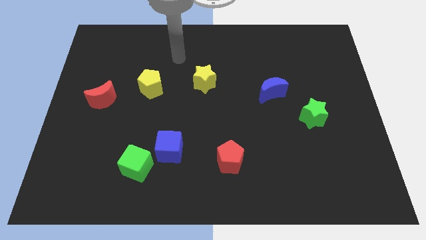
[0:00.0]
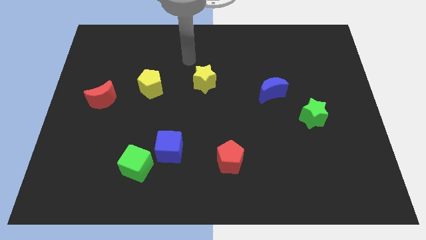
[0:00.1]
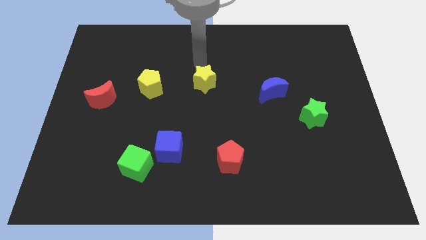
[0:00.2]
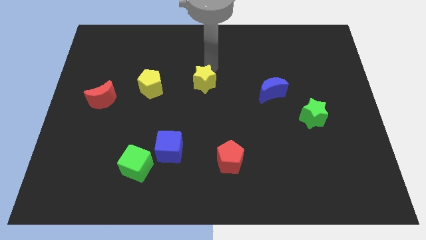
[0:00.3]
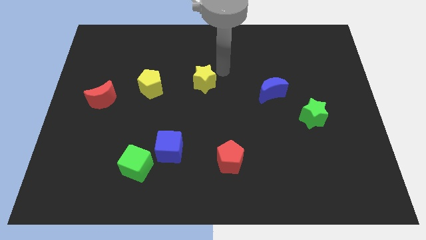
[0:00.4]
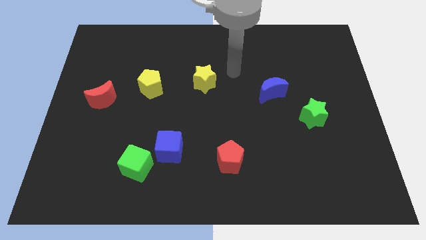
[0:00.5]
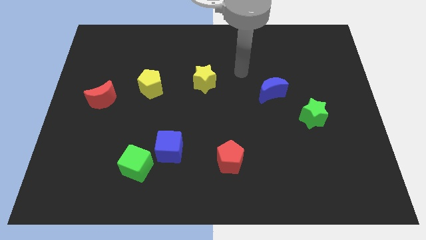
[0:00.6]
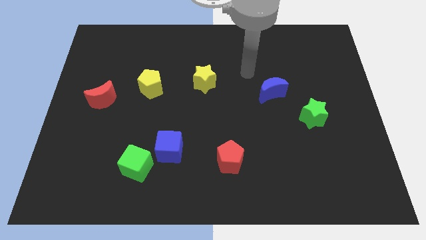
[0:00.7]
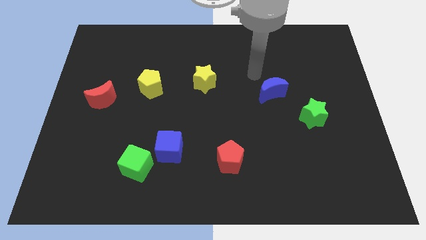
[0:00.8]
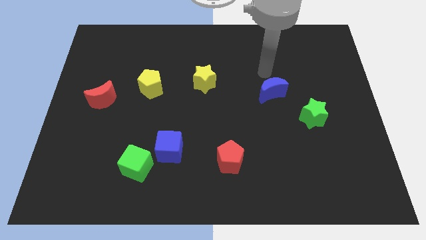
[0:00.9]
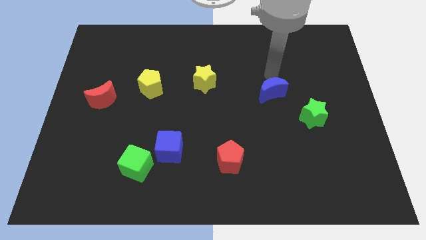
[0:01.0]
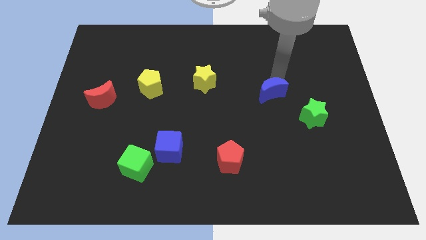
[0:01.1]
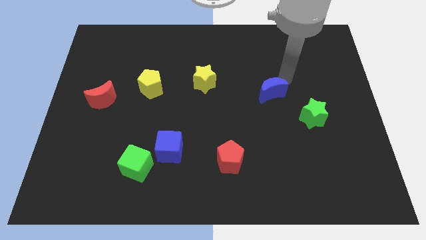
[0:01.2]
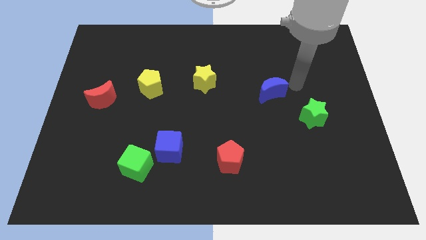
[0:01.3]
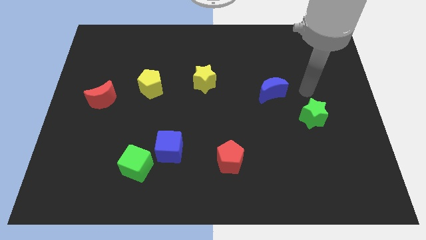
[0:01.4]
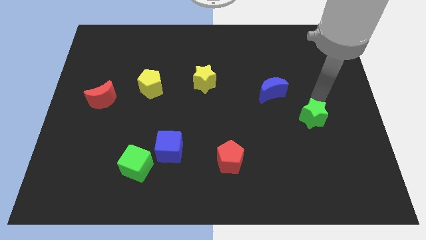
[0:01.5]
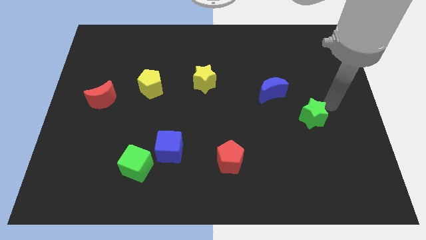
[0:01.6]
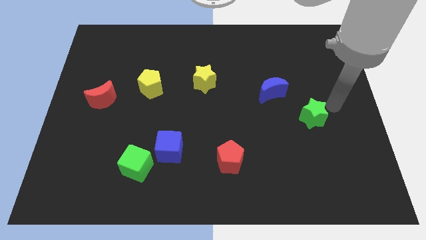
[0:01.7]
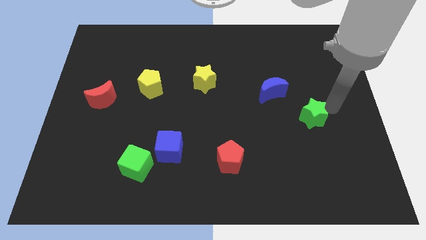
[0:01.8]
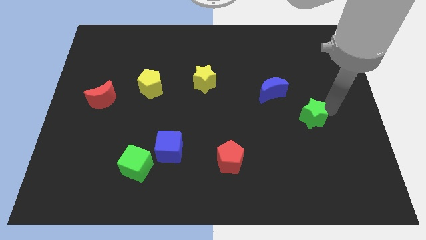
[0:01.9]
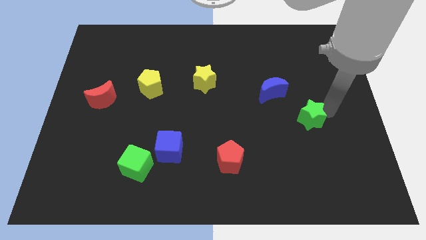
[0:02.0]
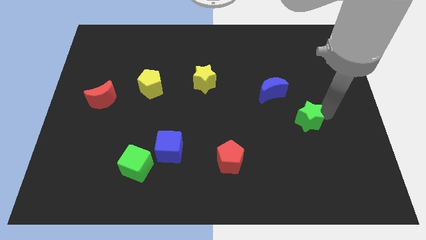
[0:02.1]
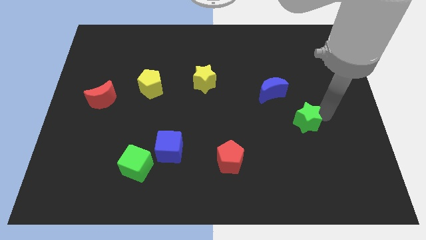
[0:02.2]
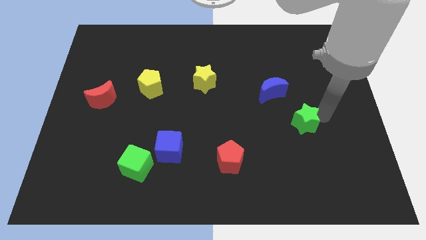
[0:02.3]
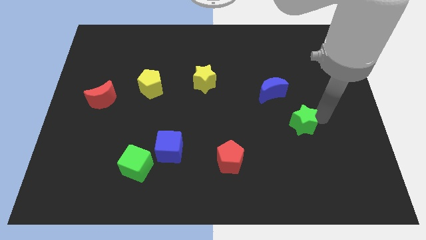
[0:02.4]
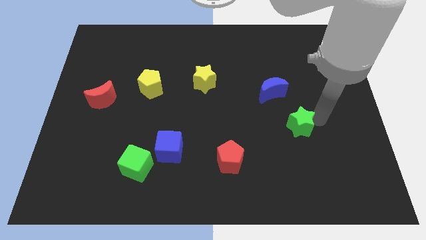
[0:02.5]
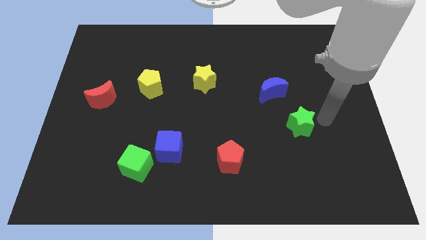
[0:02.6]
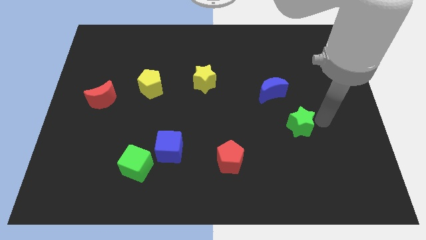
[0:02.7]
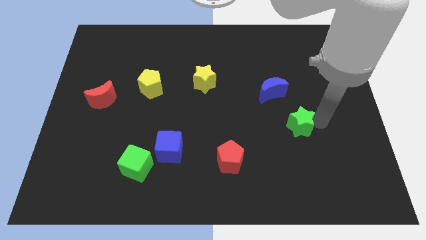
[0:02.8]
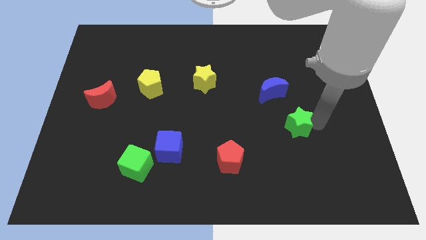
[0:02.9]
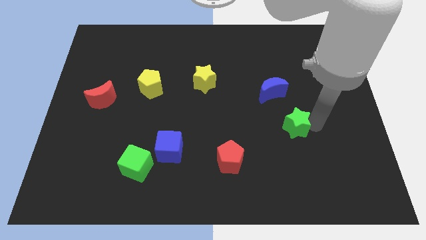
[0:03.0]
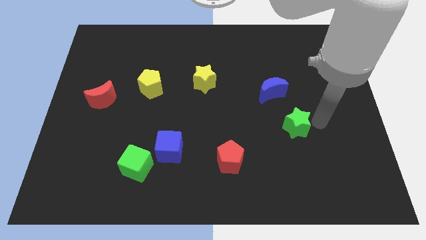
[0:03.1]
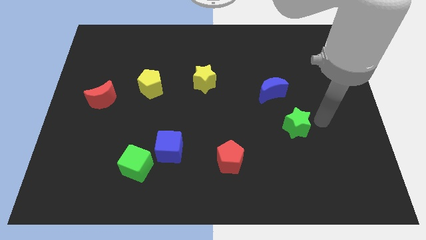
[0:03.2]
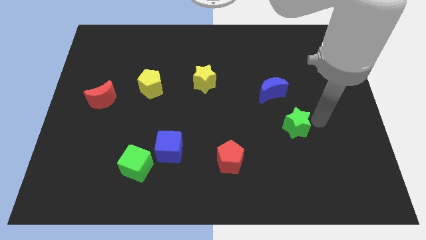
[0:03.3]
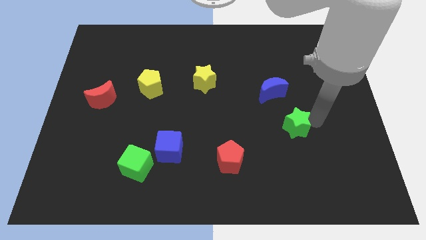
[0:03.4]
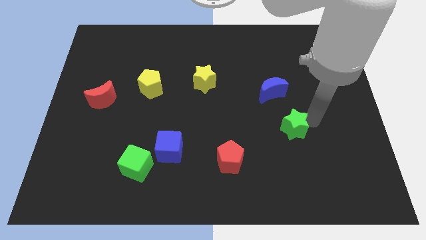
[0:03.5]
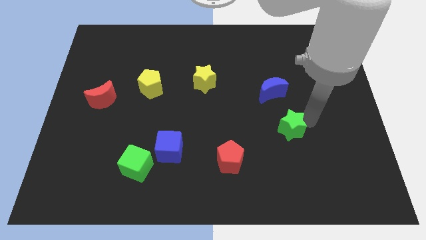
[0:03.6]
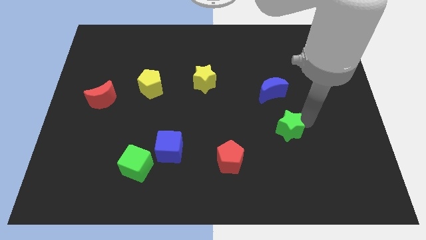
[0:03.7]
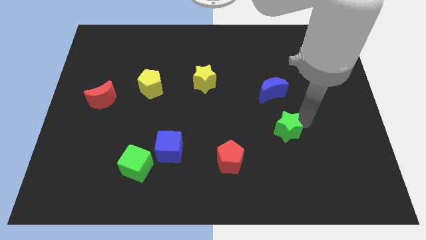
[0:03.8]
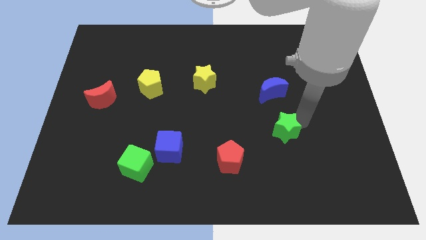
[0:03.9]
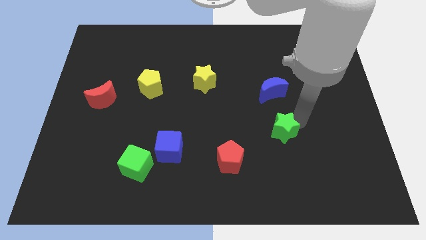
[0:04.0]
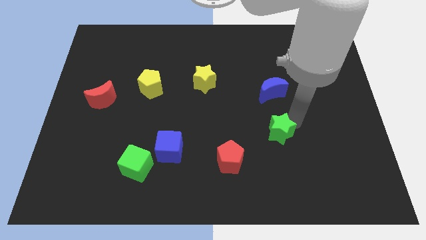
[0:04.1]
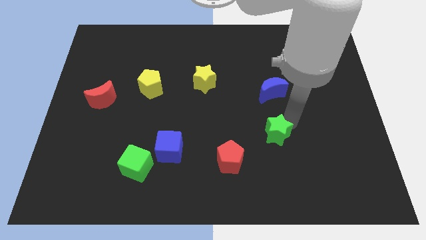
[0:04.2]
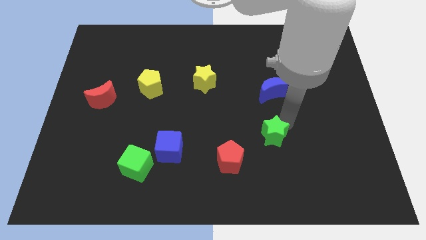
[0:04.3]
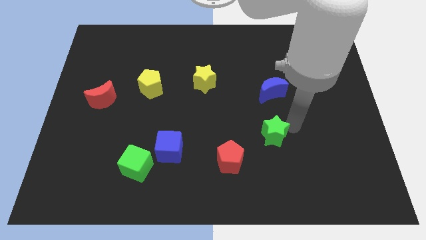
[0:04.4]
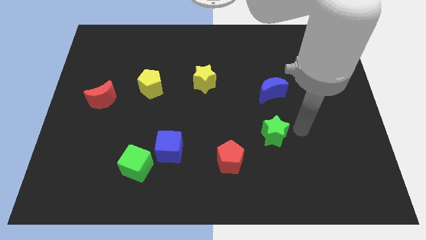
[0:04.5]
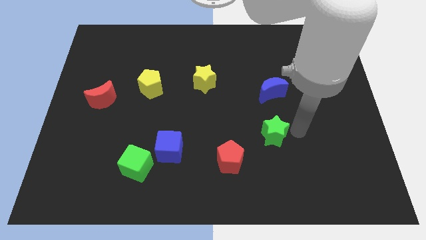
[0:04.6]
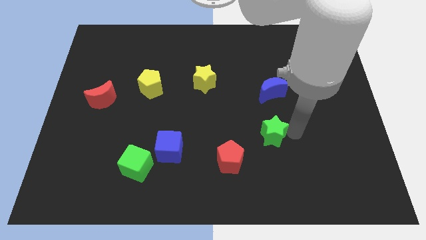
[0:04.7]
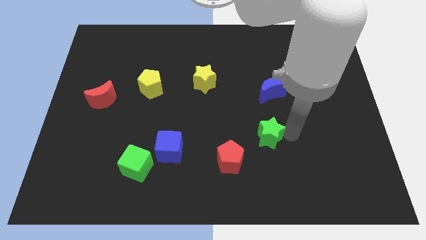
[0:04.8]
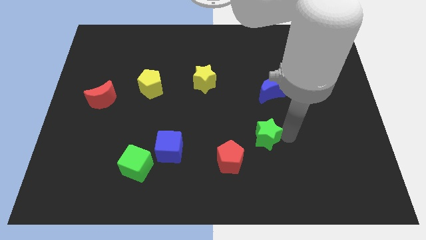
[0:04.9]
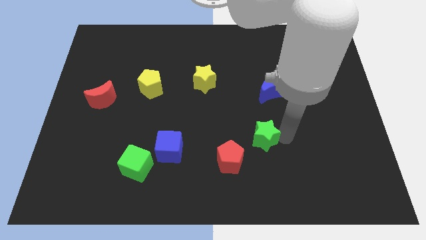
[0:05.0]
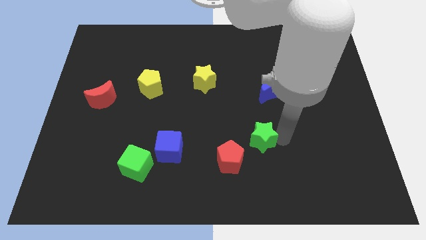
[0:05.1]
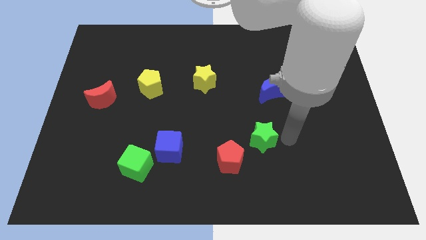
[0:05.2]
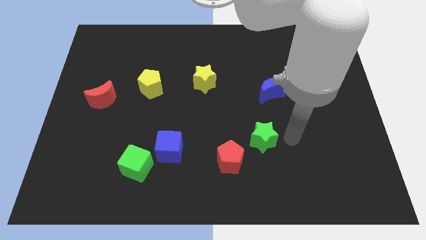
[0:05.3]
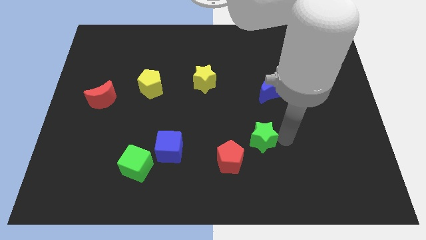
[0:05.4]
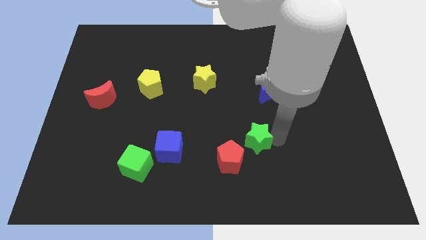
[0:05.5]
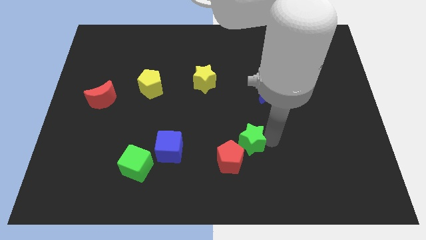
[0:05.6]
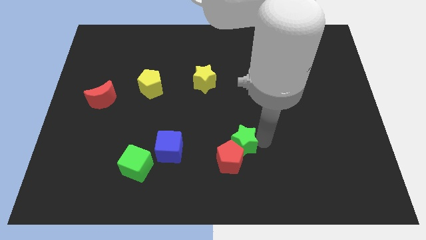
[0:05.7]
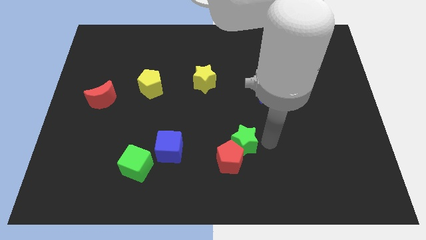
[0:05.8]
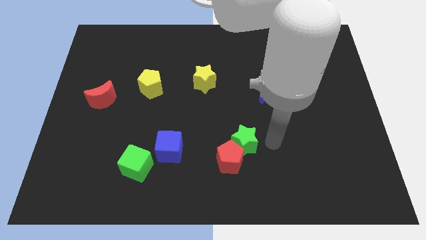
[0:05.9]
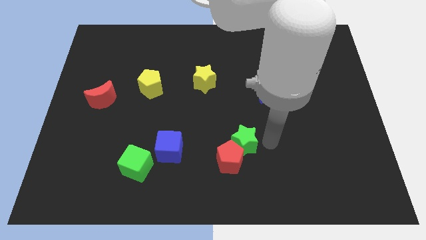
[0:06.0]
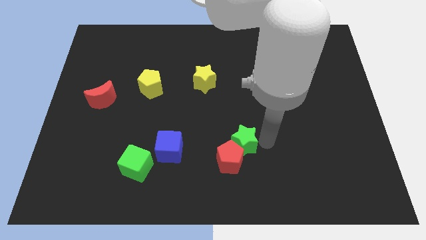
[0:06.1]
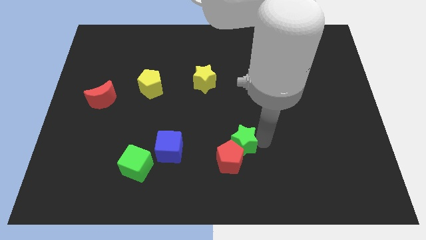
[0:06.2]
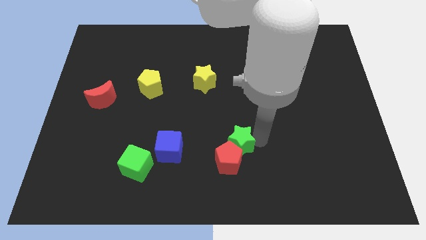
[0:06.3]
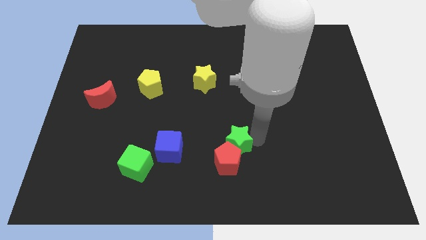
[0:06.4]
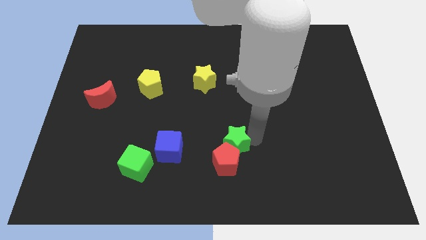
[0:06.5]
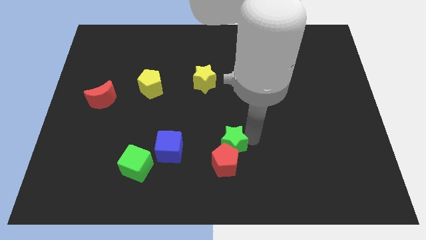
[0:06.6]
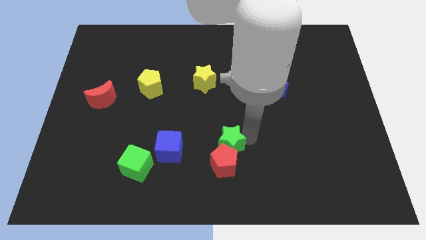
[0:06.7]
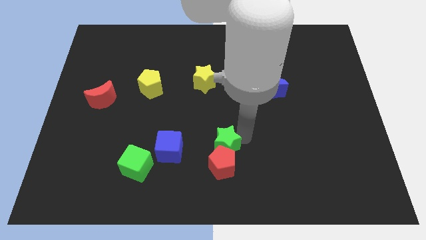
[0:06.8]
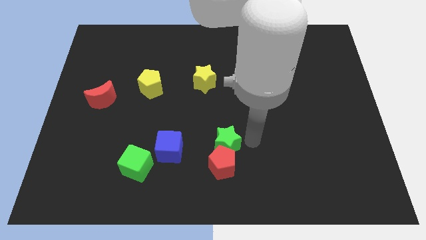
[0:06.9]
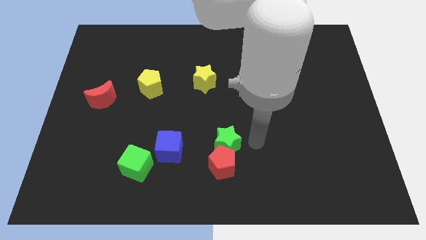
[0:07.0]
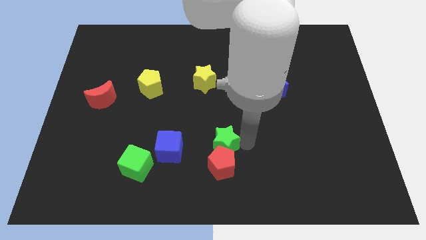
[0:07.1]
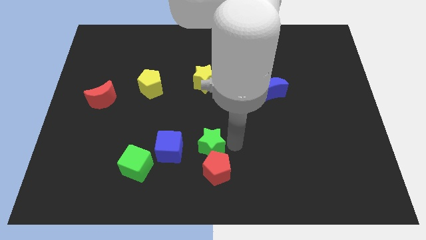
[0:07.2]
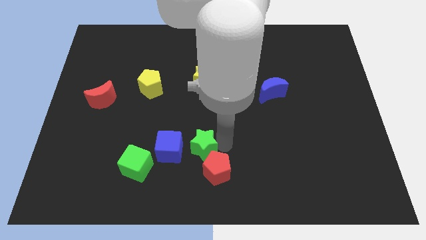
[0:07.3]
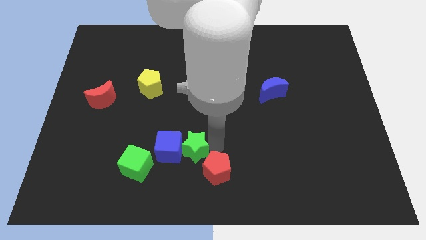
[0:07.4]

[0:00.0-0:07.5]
put the green star close to the blue cube

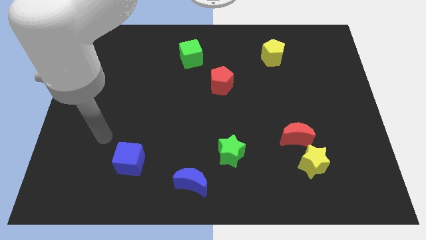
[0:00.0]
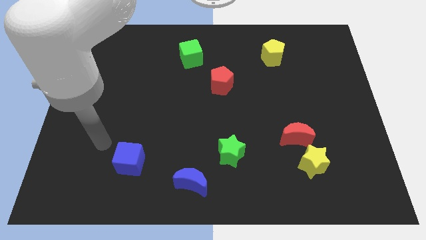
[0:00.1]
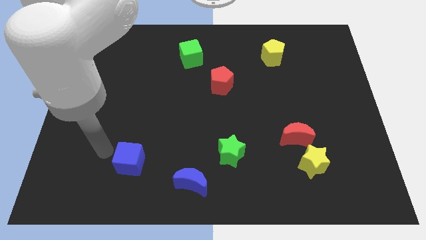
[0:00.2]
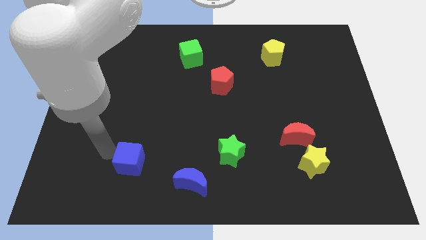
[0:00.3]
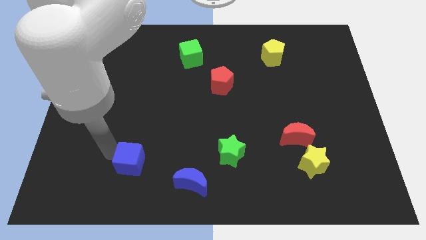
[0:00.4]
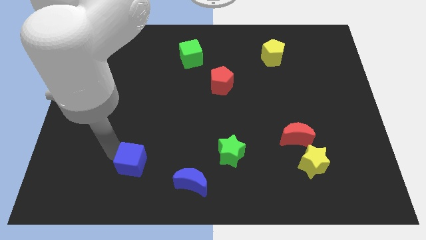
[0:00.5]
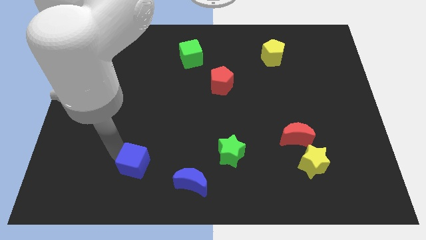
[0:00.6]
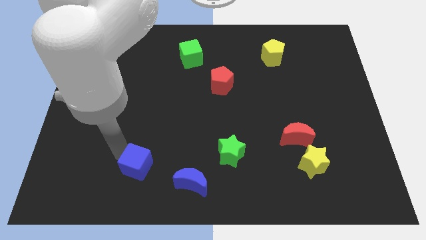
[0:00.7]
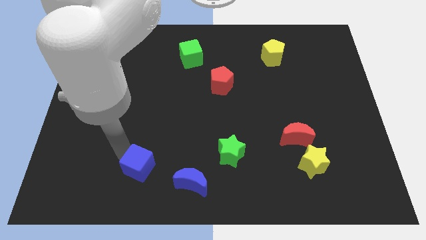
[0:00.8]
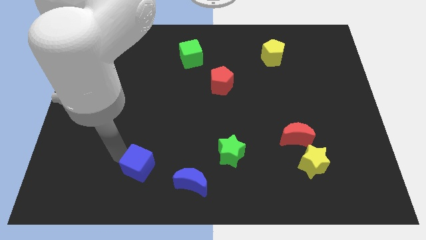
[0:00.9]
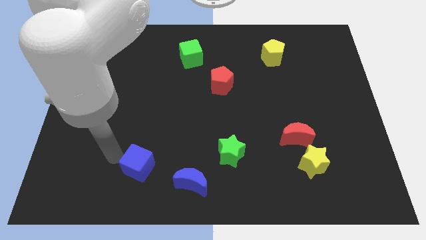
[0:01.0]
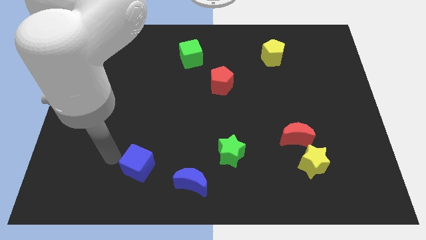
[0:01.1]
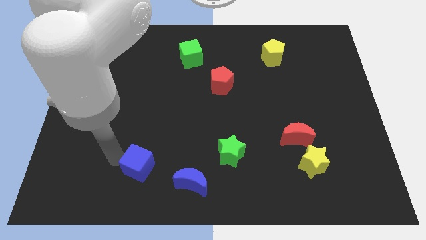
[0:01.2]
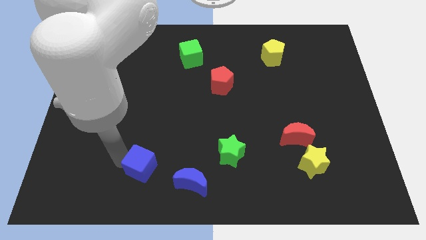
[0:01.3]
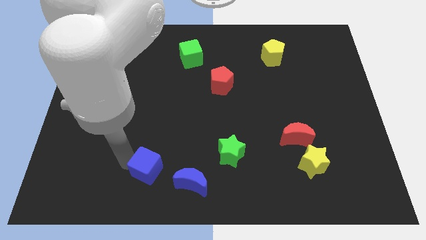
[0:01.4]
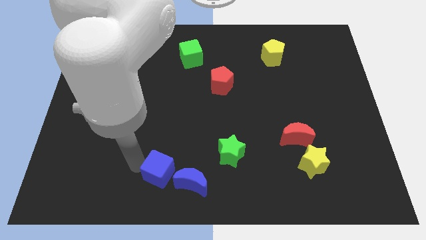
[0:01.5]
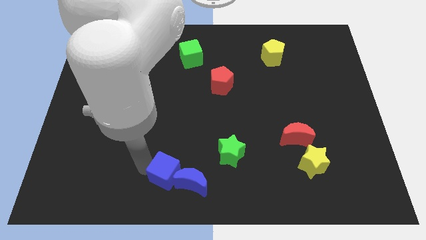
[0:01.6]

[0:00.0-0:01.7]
put the blue cube close to the blue moon
